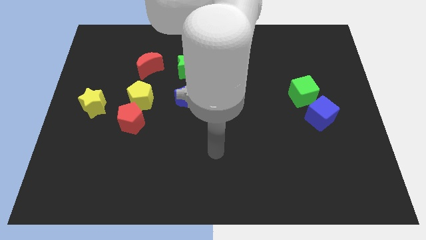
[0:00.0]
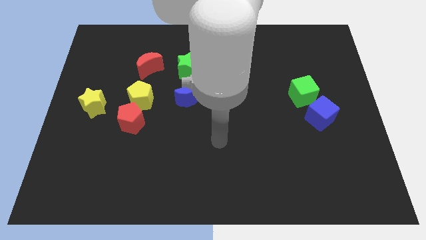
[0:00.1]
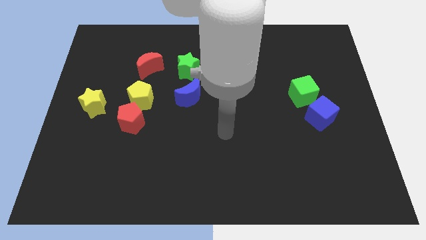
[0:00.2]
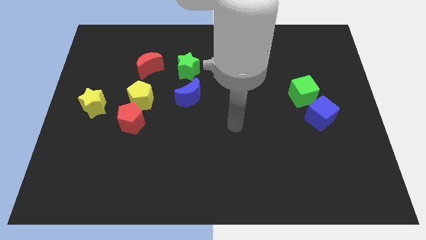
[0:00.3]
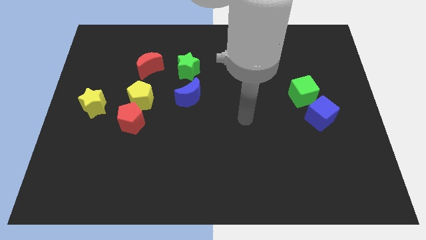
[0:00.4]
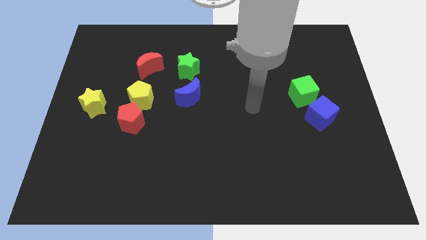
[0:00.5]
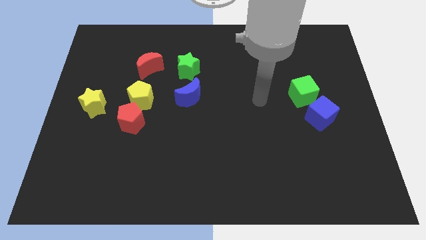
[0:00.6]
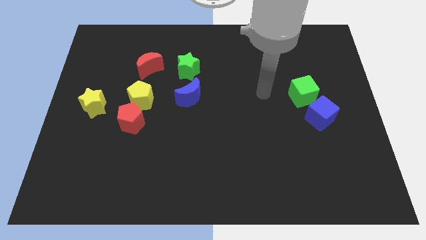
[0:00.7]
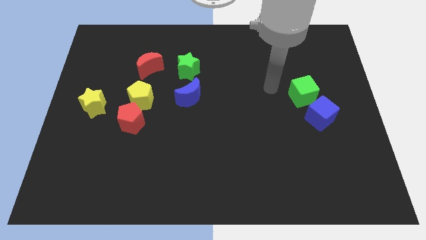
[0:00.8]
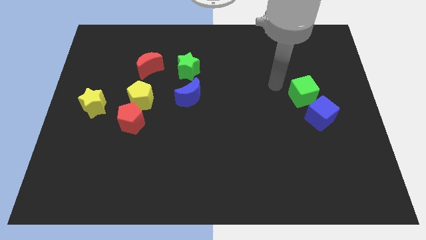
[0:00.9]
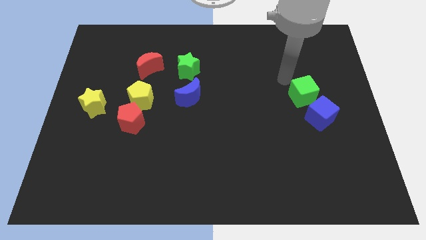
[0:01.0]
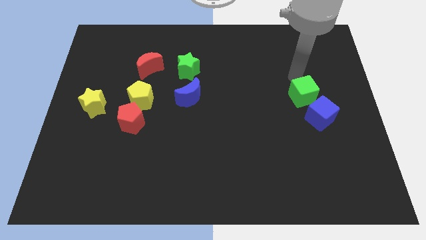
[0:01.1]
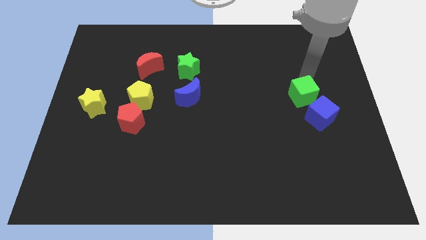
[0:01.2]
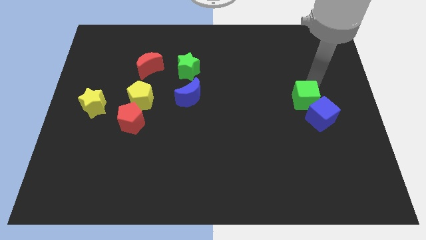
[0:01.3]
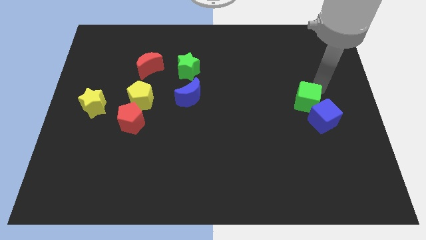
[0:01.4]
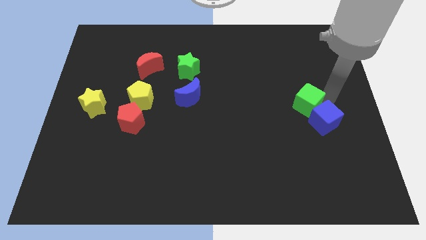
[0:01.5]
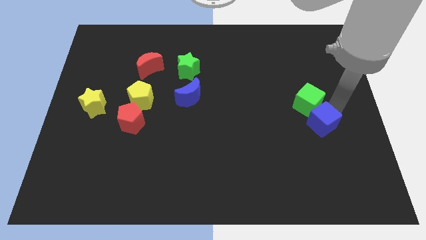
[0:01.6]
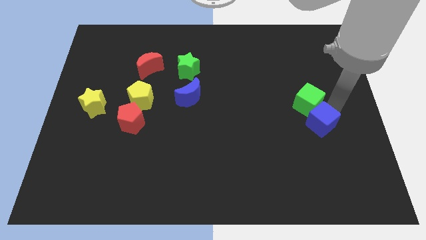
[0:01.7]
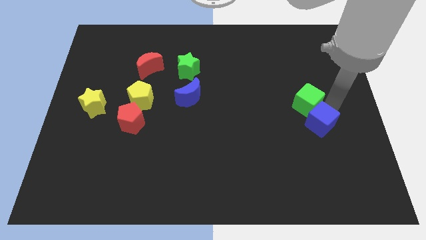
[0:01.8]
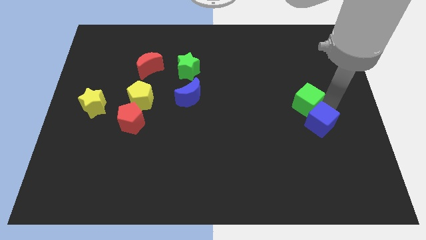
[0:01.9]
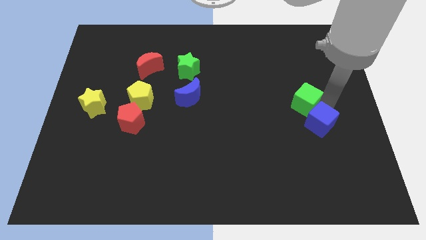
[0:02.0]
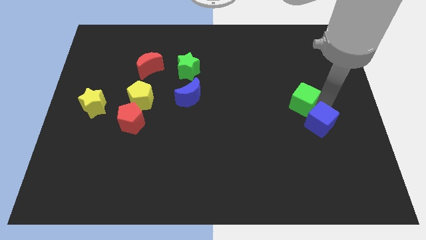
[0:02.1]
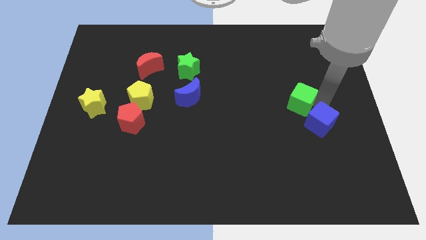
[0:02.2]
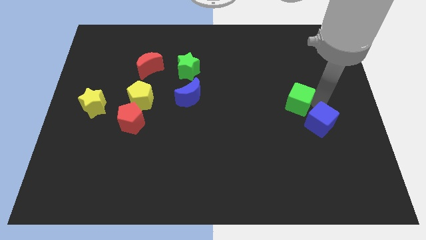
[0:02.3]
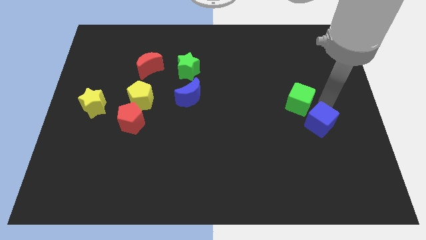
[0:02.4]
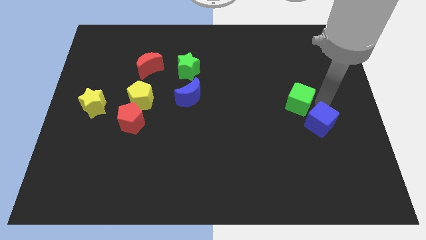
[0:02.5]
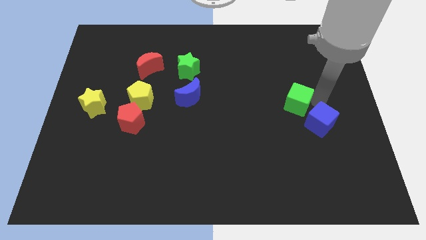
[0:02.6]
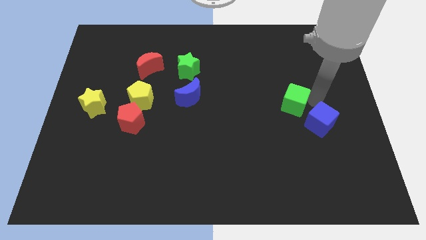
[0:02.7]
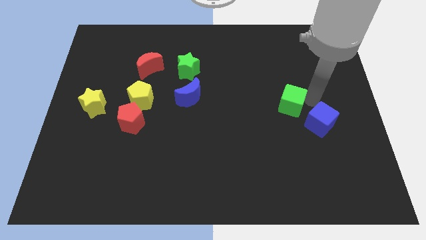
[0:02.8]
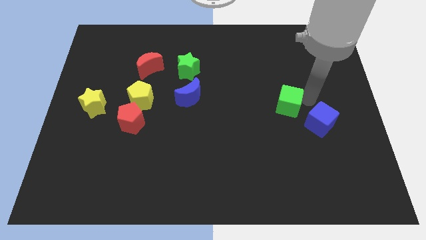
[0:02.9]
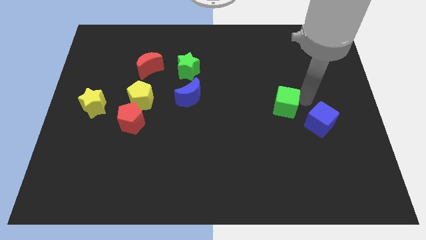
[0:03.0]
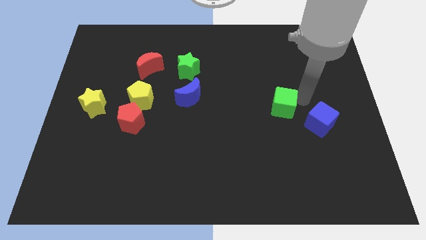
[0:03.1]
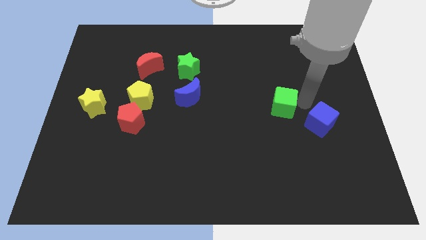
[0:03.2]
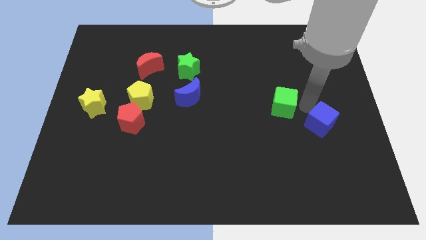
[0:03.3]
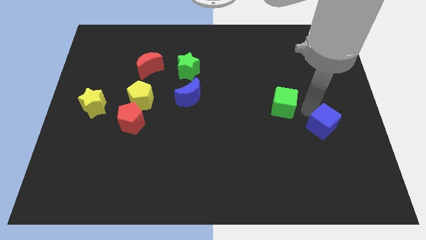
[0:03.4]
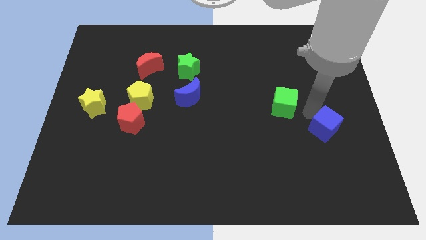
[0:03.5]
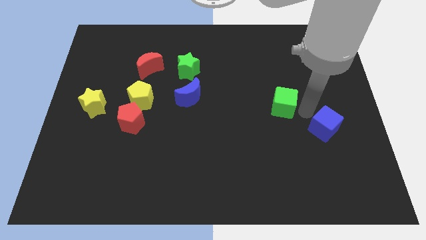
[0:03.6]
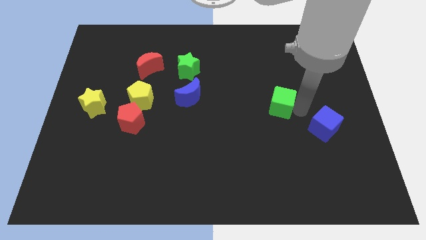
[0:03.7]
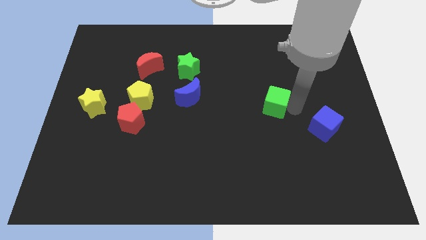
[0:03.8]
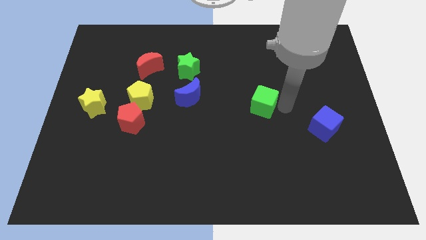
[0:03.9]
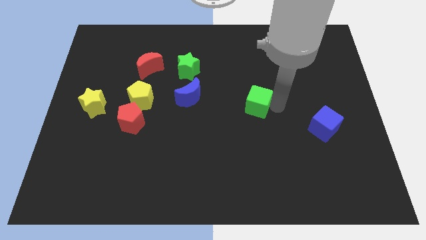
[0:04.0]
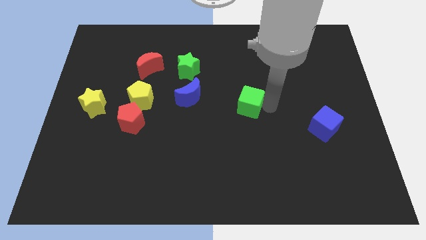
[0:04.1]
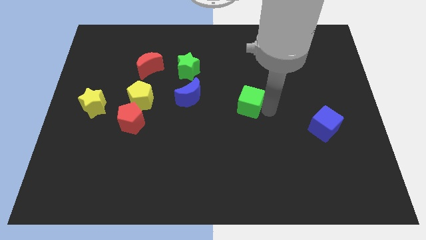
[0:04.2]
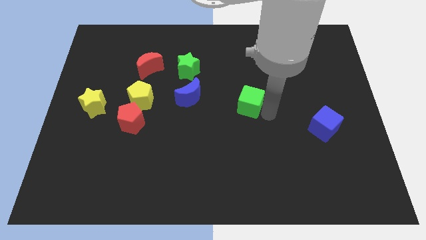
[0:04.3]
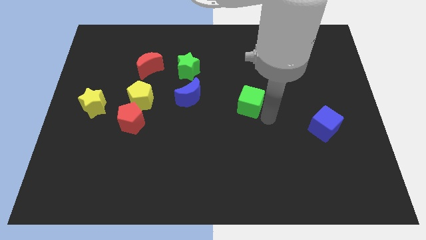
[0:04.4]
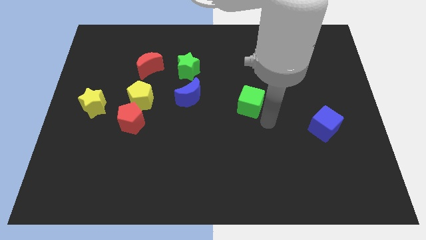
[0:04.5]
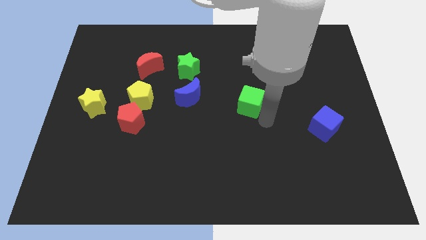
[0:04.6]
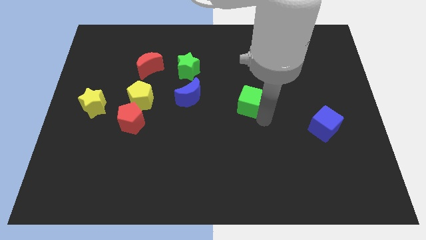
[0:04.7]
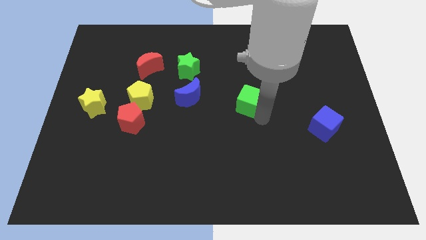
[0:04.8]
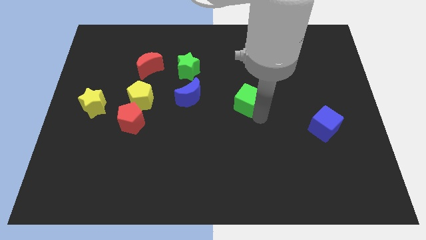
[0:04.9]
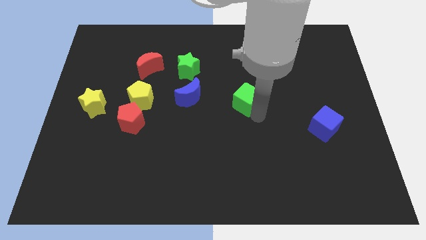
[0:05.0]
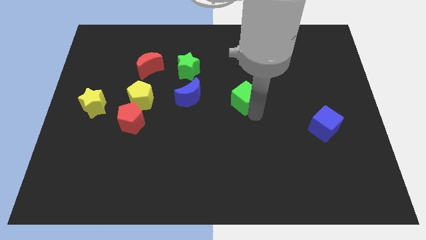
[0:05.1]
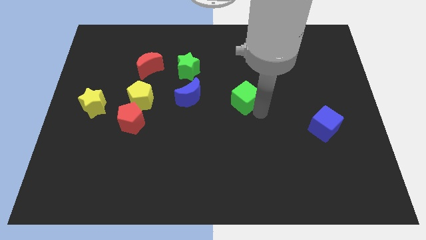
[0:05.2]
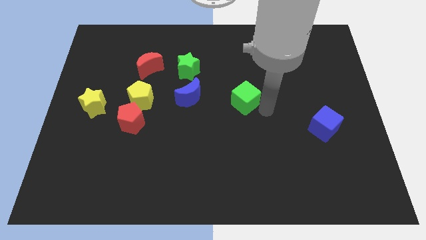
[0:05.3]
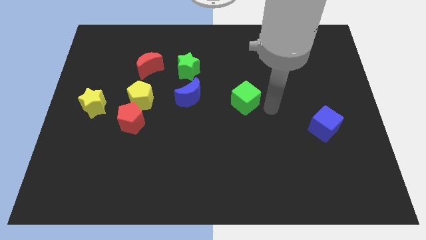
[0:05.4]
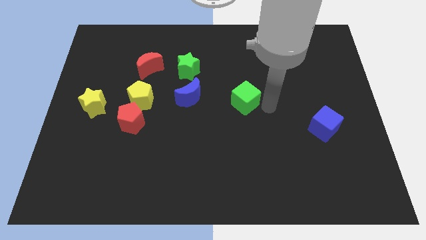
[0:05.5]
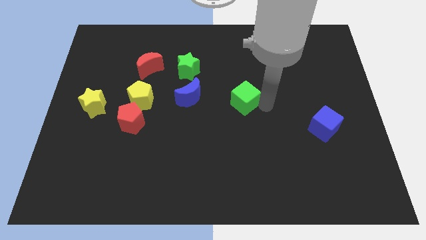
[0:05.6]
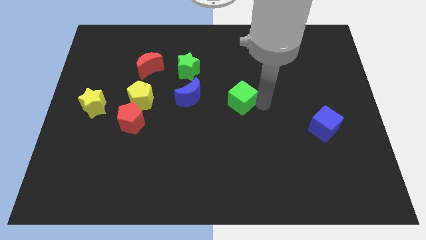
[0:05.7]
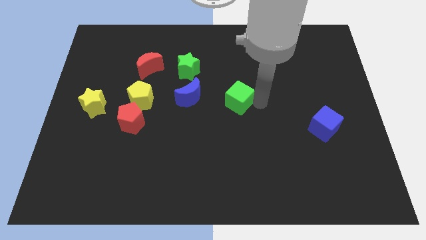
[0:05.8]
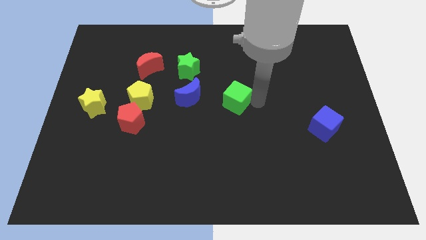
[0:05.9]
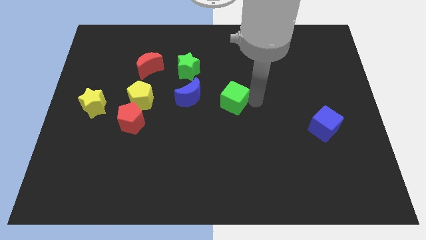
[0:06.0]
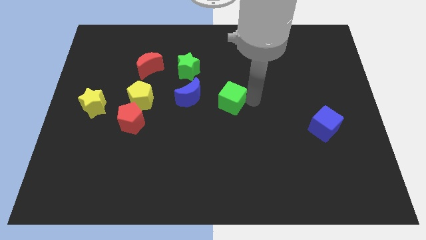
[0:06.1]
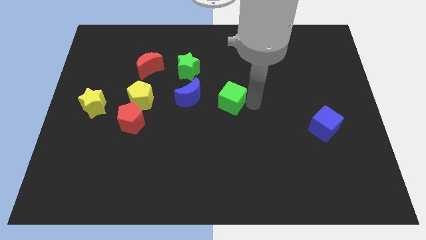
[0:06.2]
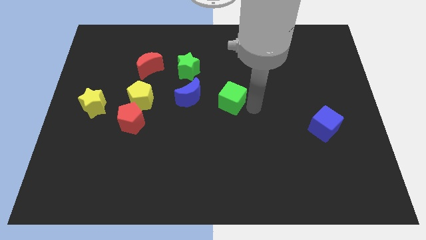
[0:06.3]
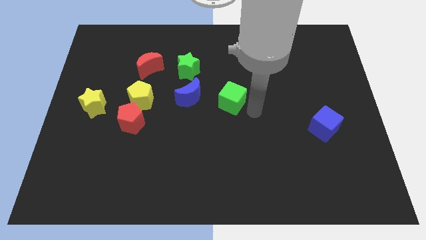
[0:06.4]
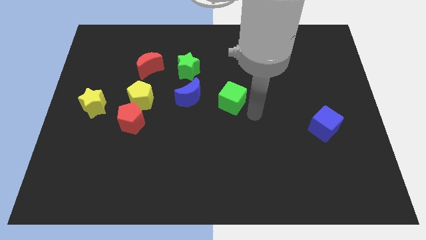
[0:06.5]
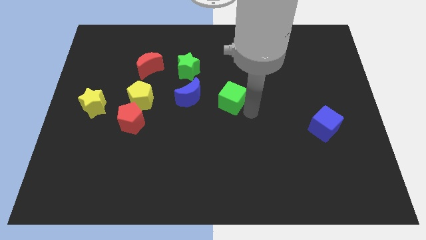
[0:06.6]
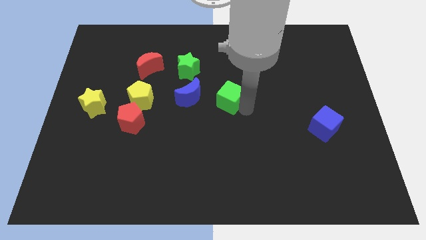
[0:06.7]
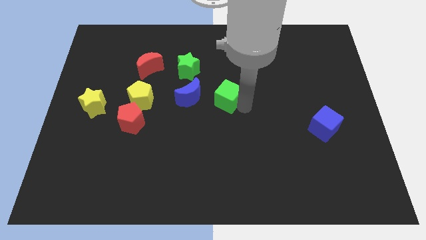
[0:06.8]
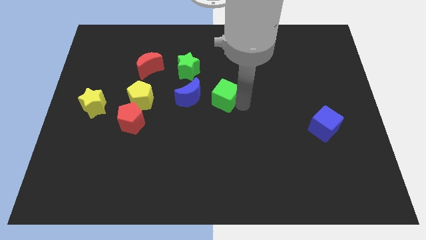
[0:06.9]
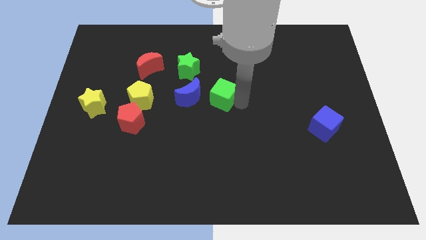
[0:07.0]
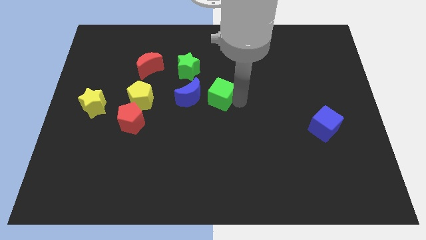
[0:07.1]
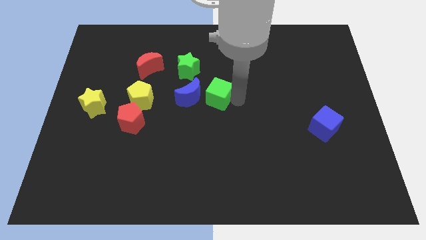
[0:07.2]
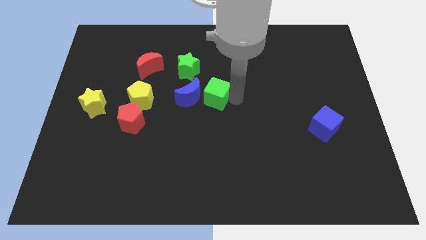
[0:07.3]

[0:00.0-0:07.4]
slide the green cube close to the blue moon

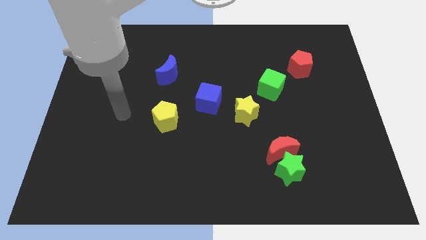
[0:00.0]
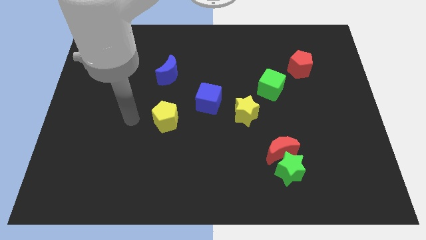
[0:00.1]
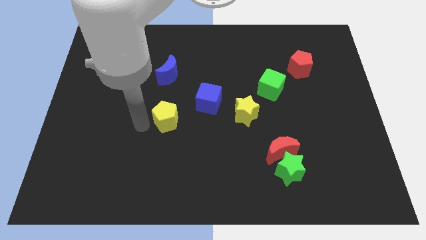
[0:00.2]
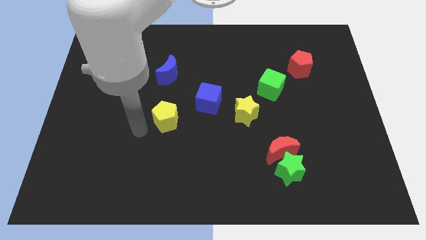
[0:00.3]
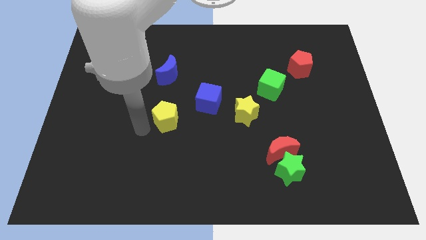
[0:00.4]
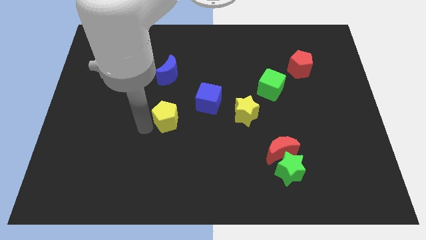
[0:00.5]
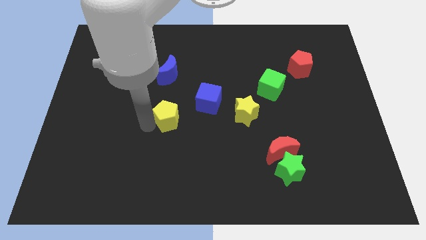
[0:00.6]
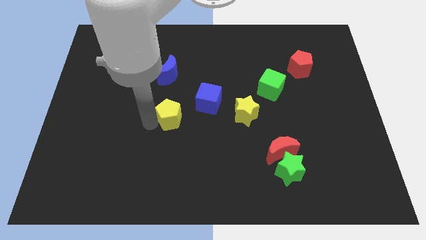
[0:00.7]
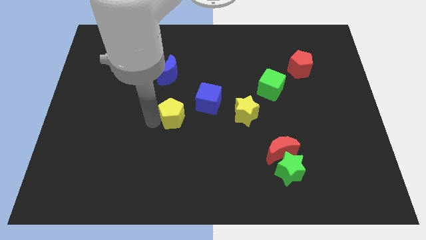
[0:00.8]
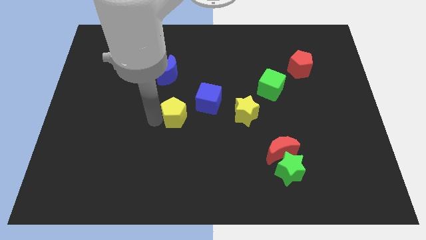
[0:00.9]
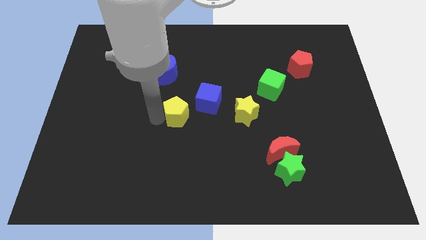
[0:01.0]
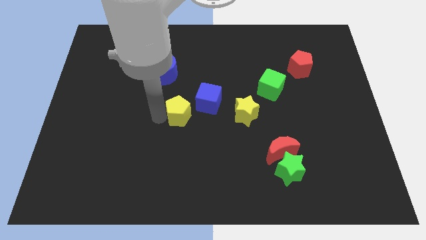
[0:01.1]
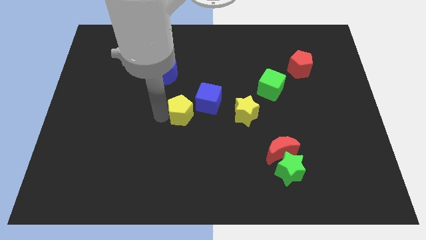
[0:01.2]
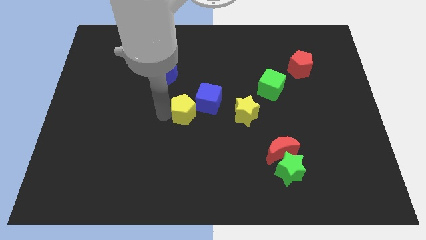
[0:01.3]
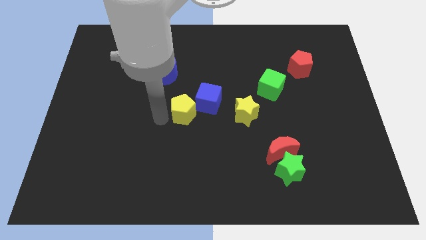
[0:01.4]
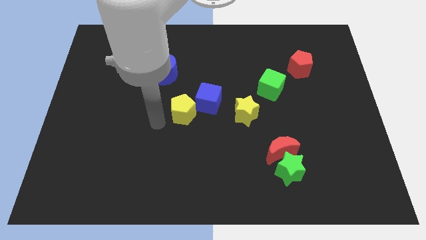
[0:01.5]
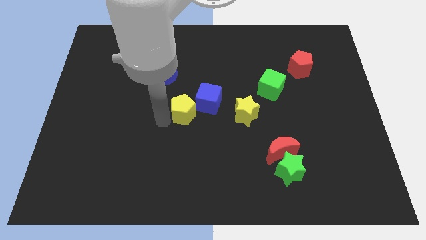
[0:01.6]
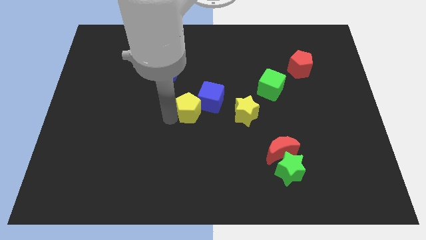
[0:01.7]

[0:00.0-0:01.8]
put the yellow pentagon next to the blue cube
